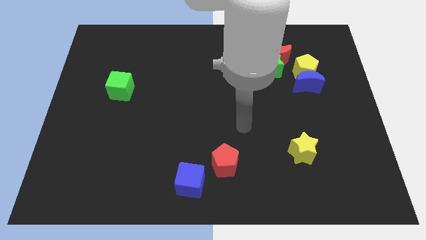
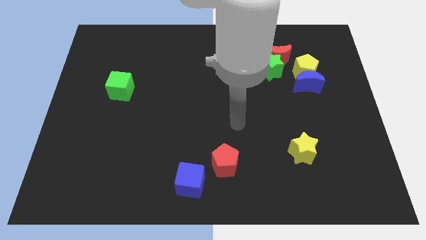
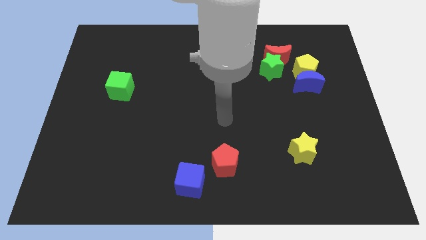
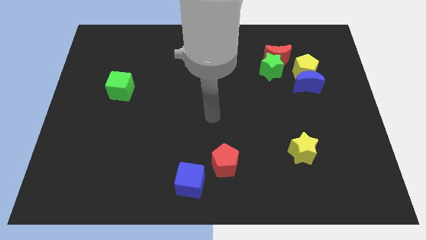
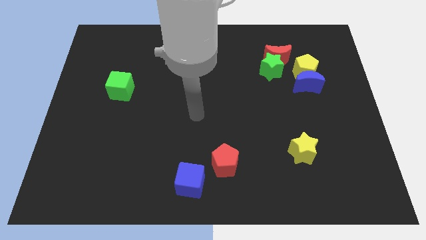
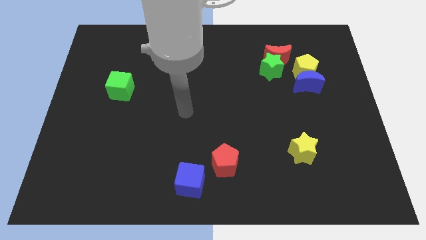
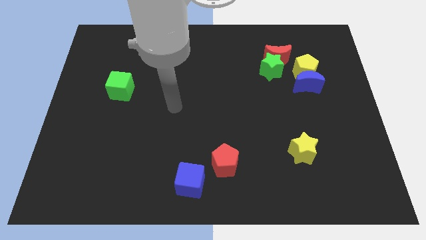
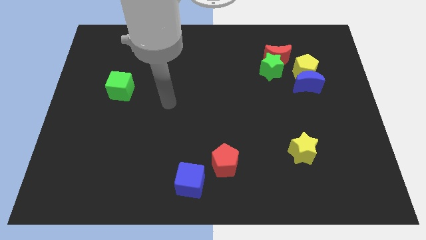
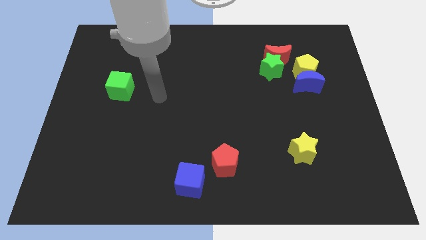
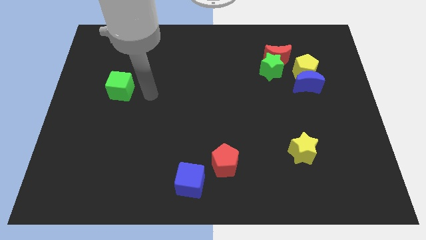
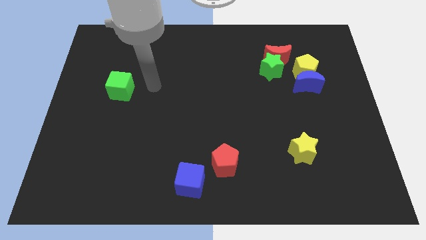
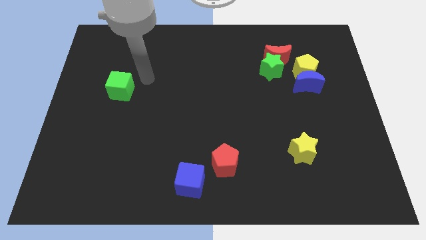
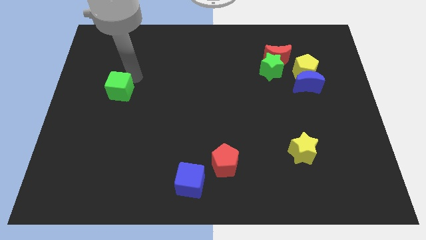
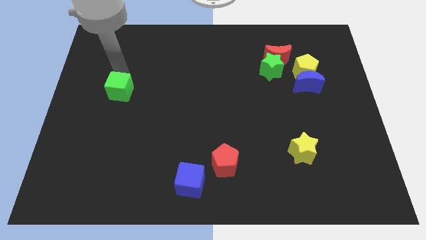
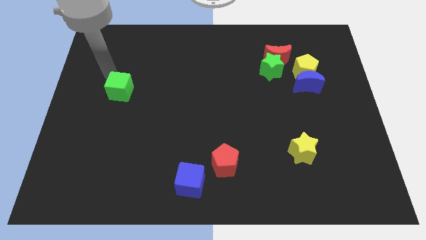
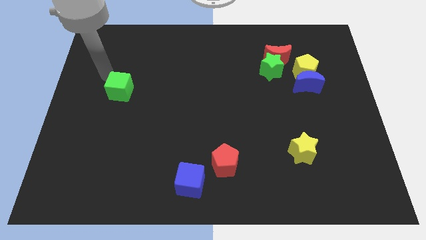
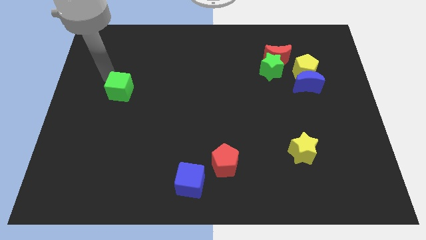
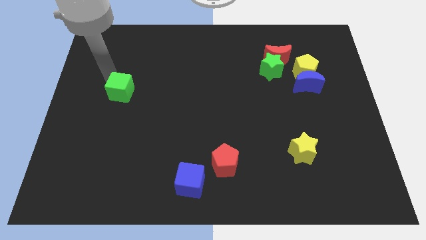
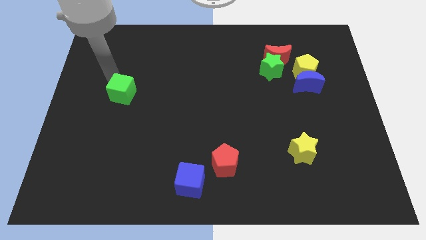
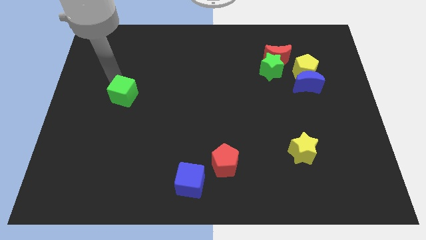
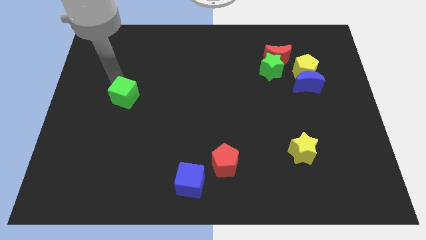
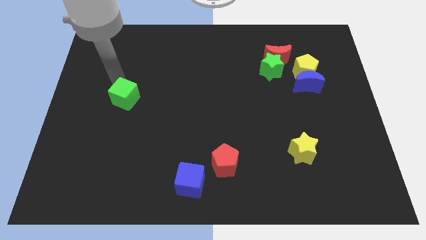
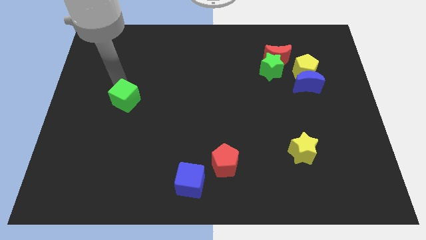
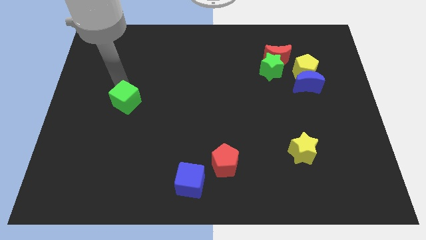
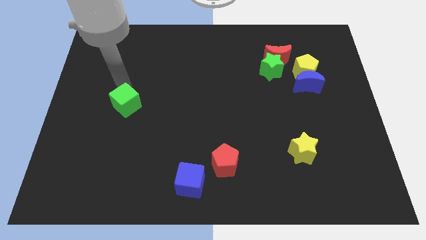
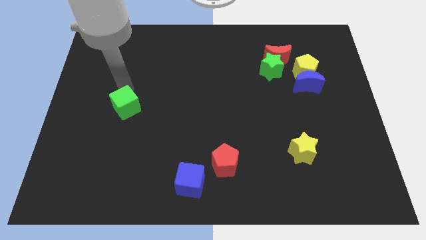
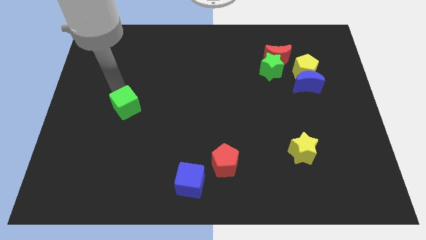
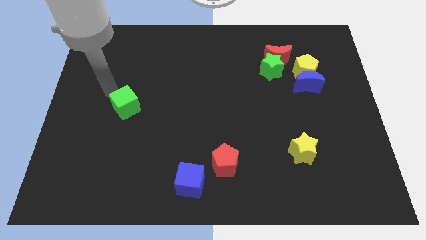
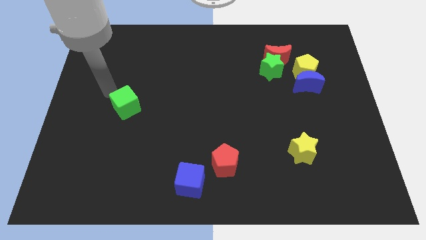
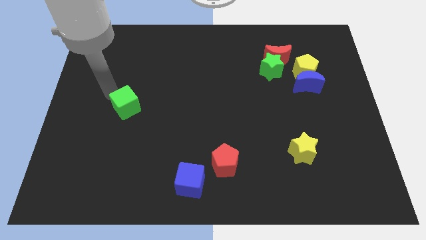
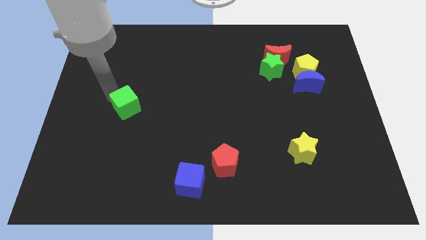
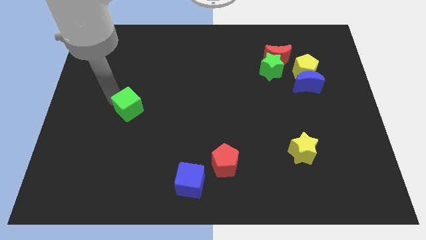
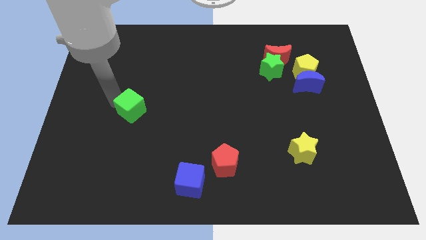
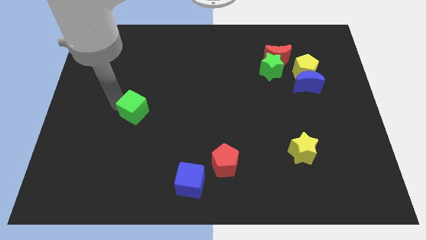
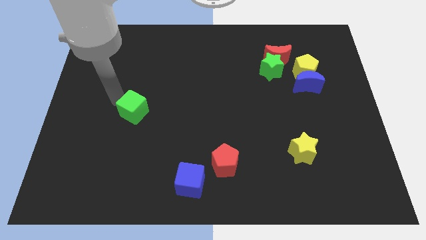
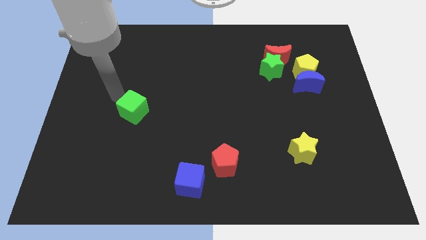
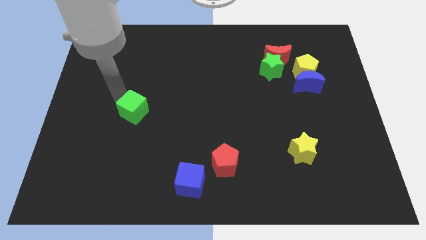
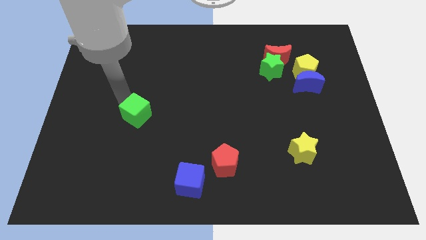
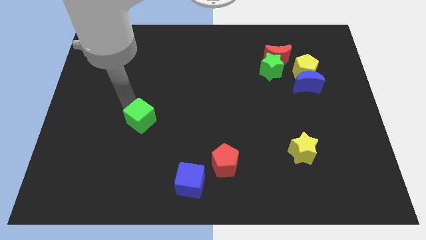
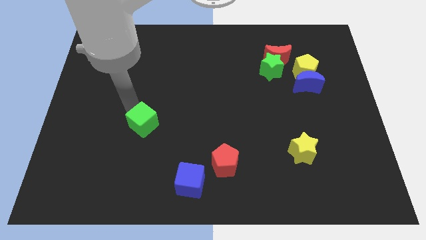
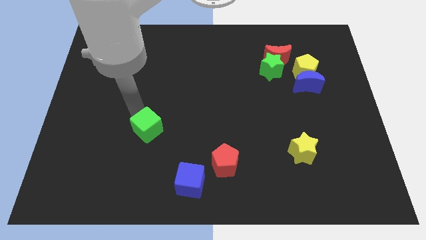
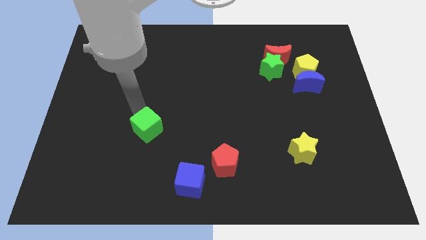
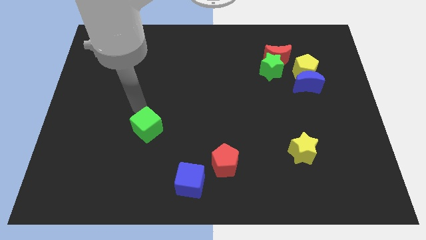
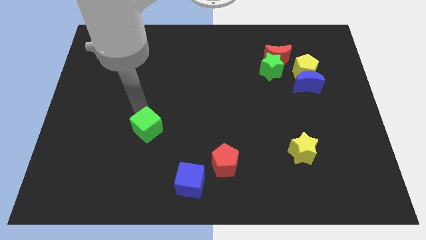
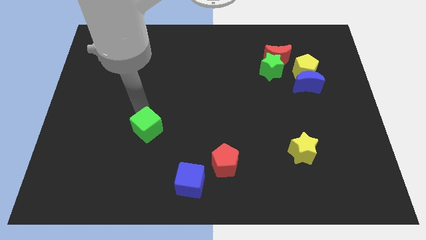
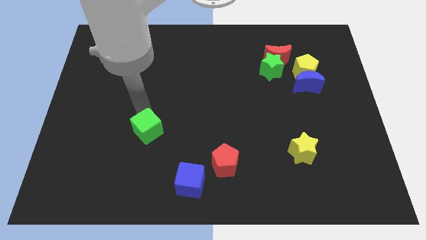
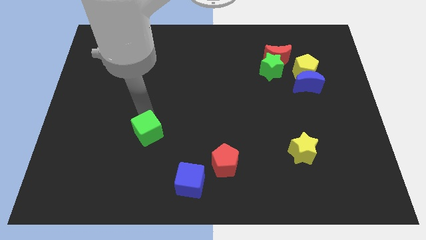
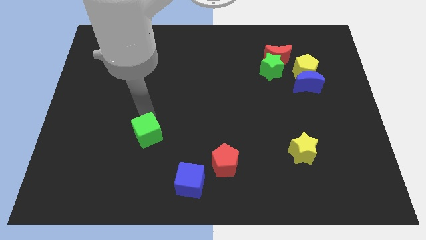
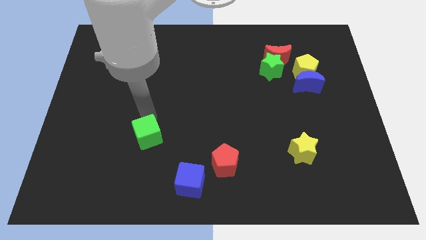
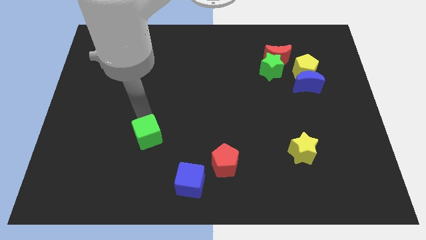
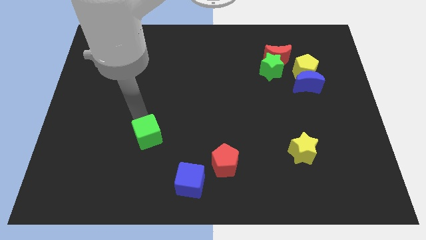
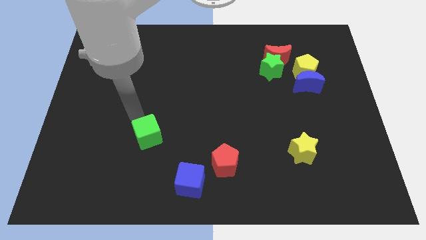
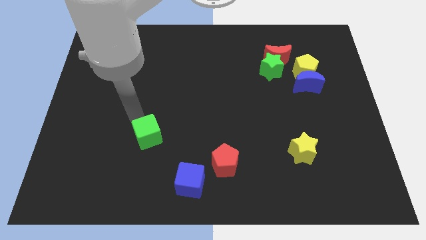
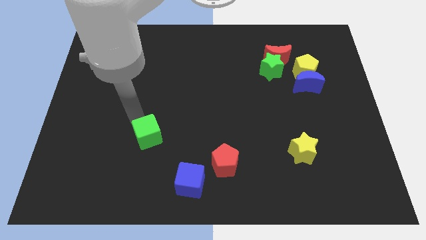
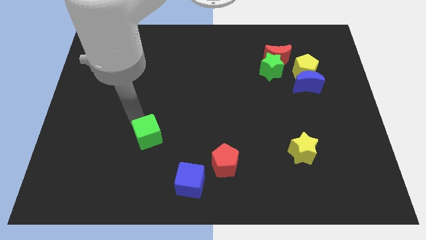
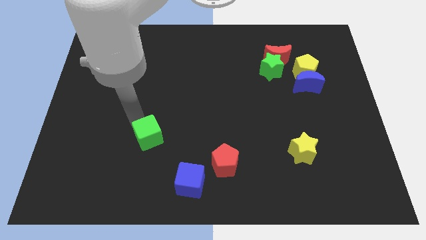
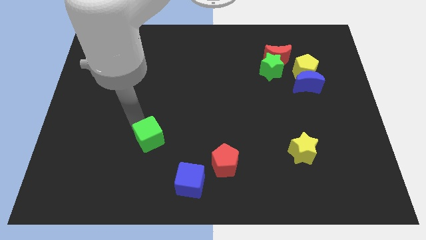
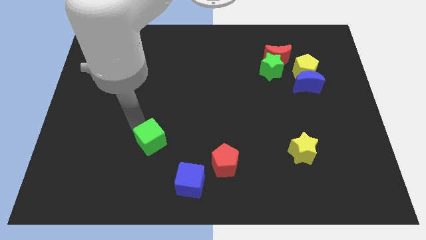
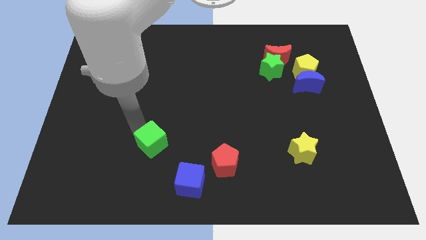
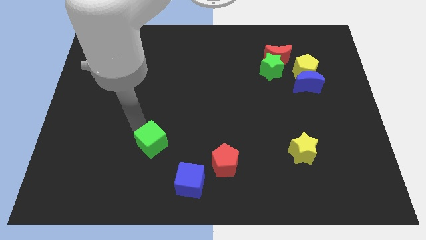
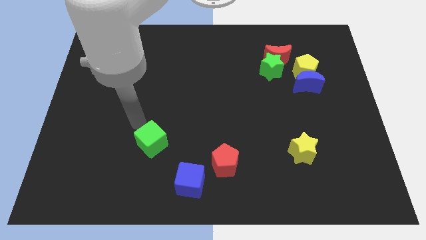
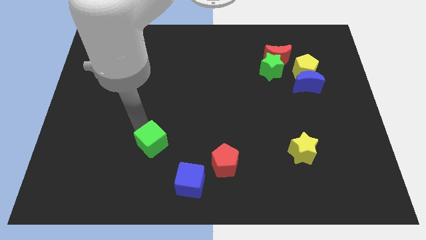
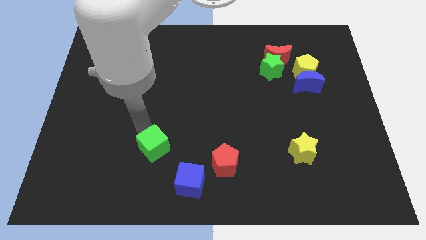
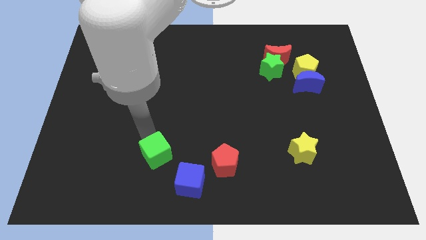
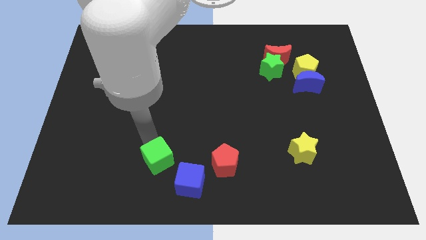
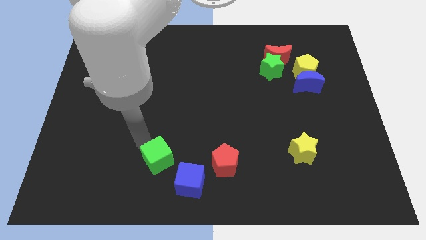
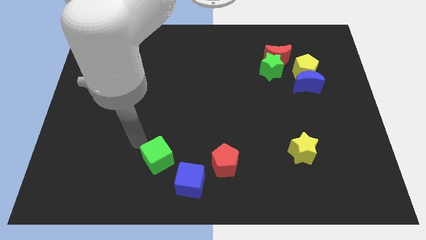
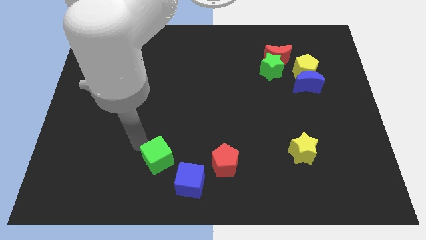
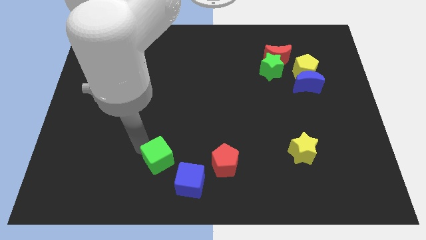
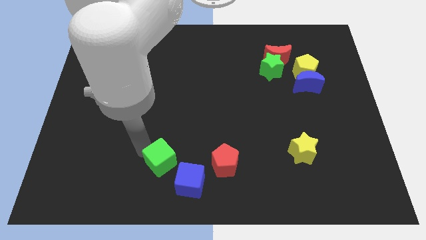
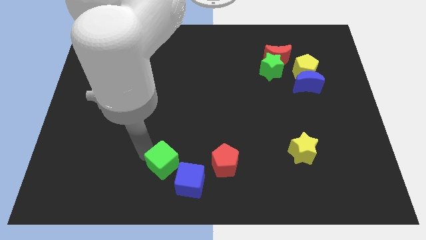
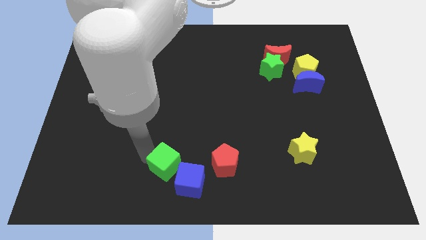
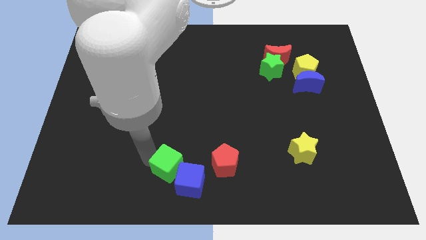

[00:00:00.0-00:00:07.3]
push the green cube towards the blue cube

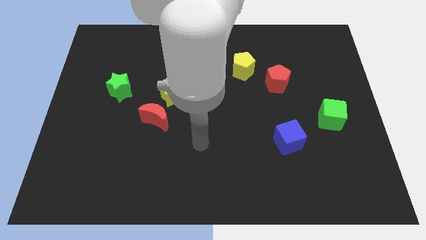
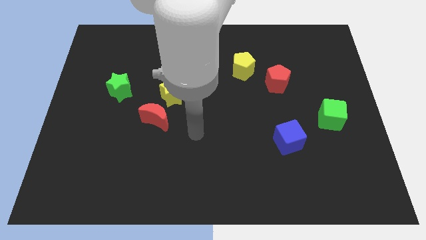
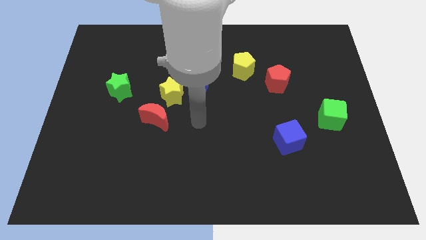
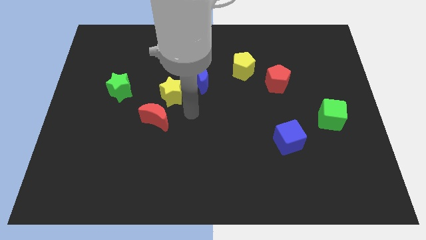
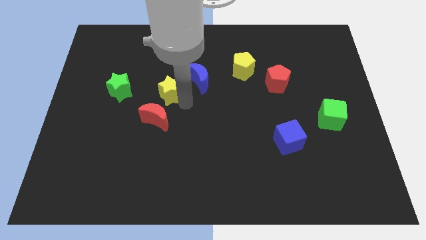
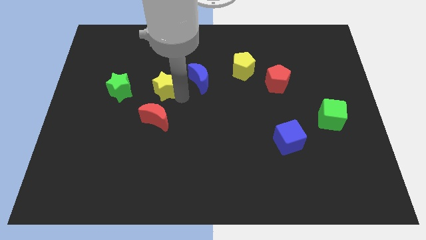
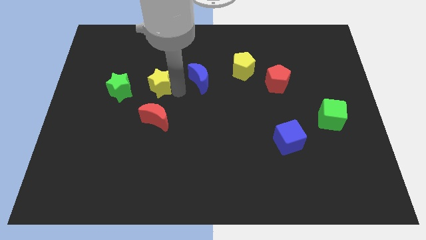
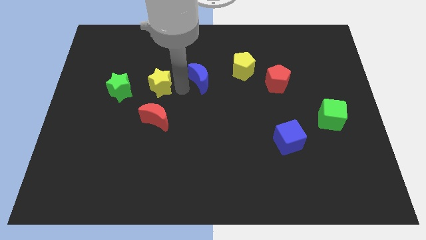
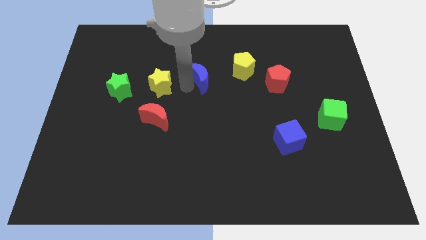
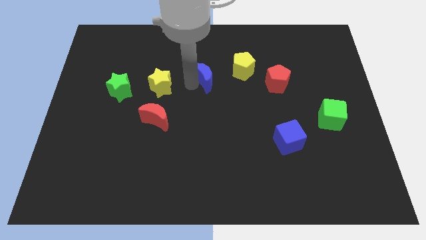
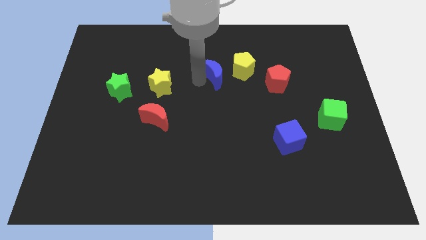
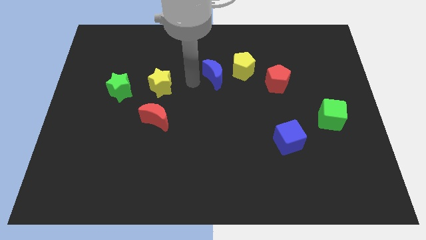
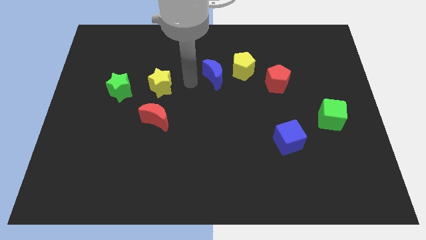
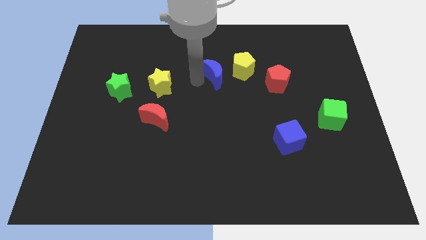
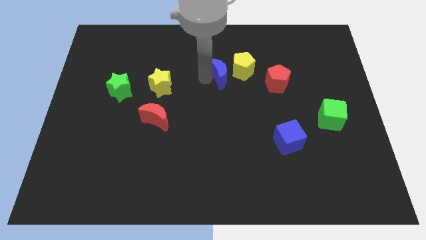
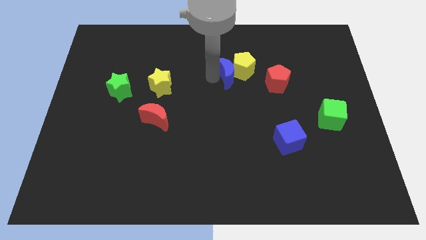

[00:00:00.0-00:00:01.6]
push the blue moon close to the yellow pentagon
